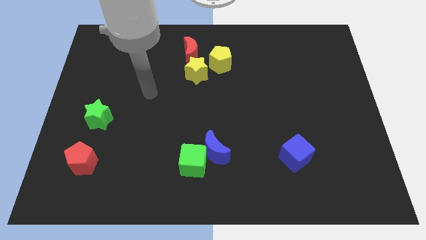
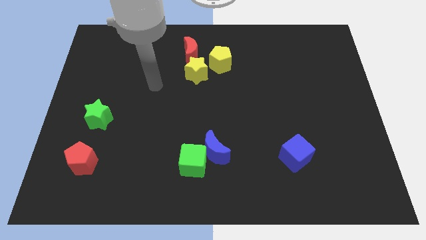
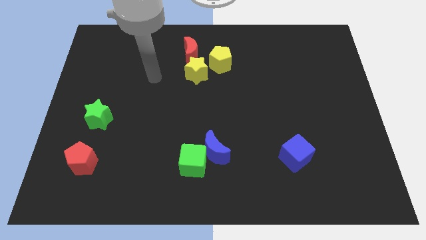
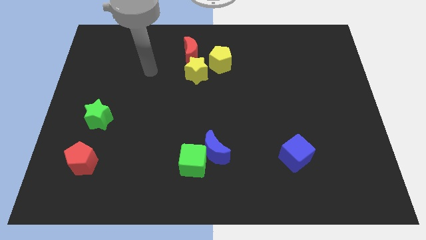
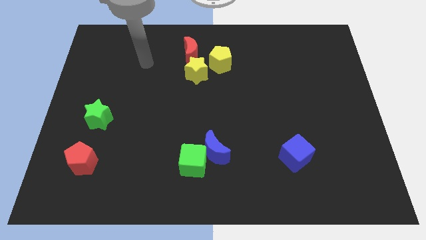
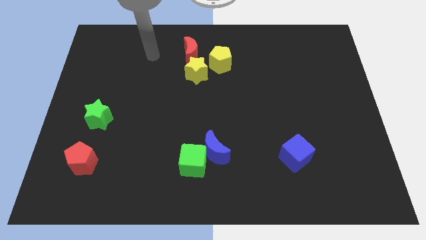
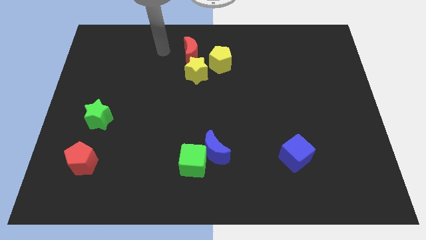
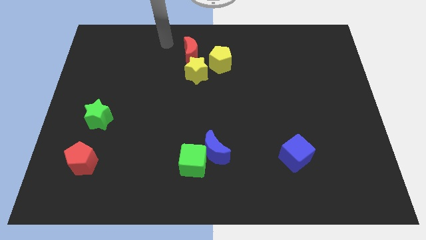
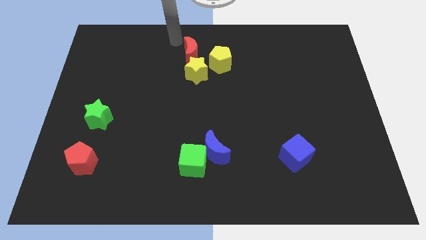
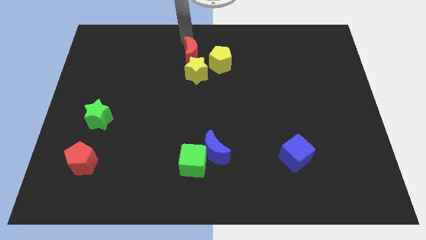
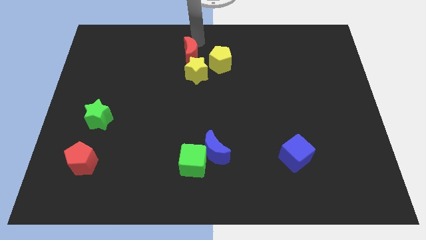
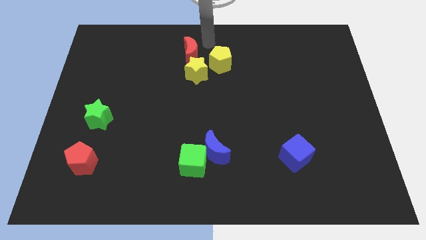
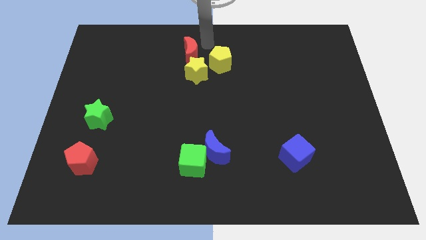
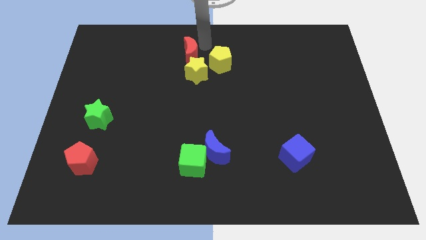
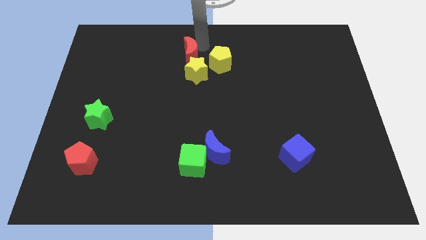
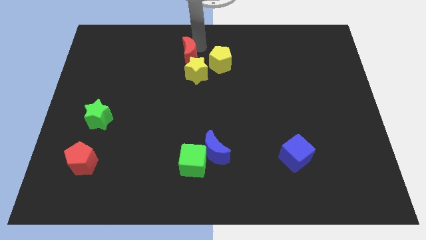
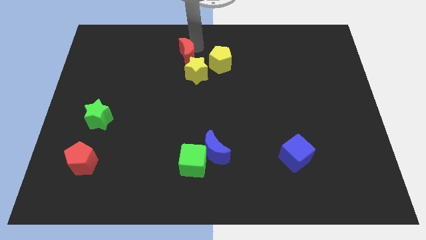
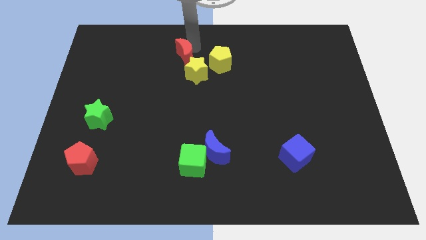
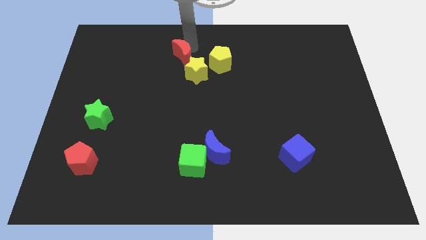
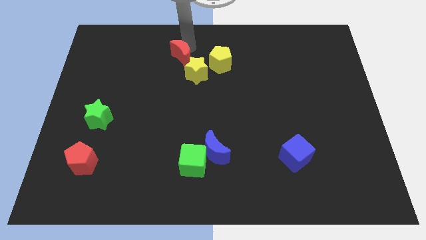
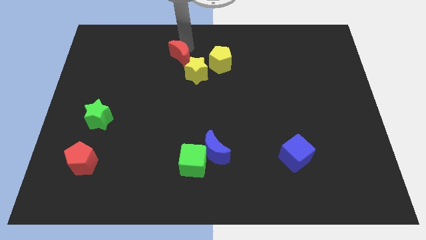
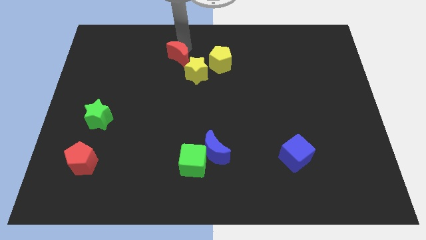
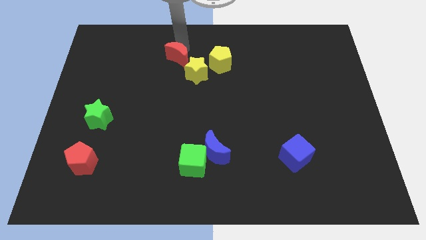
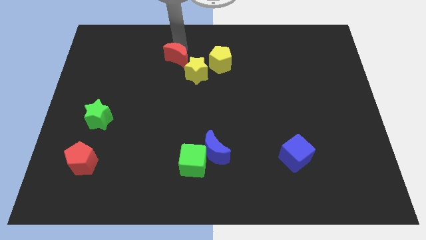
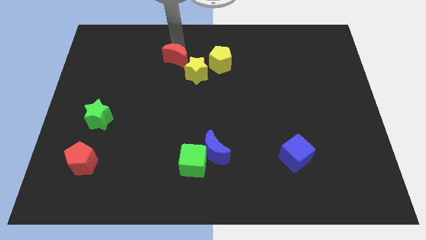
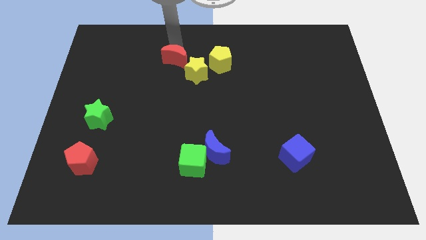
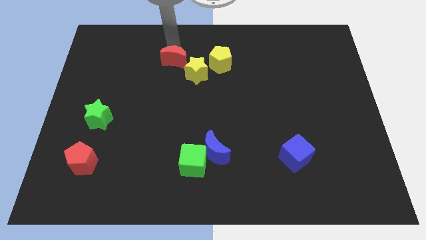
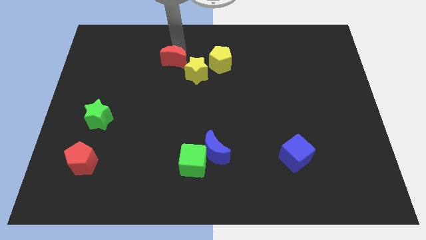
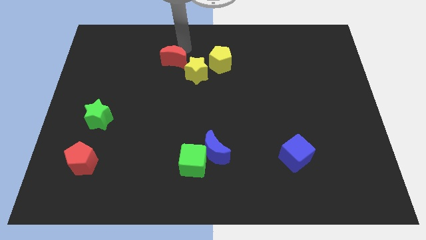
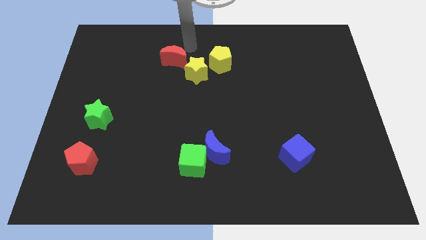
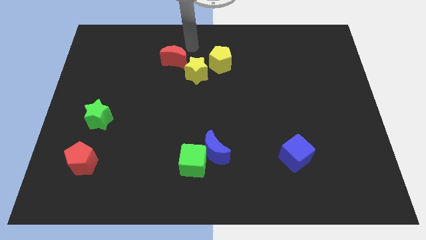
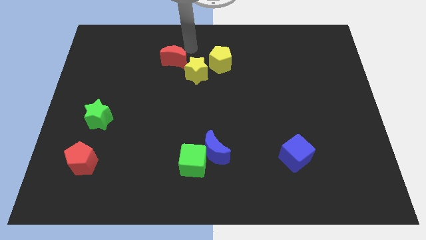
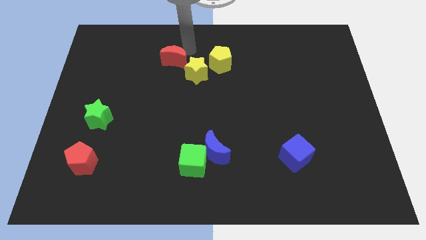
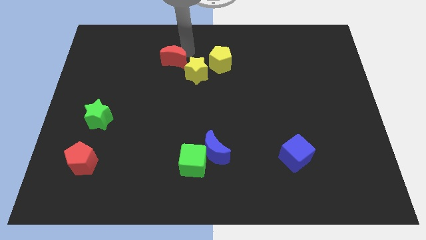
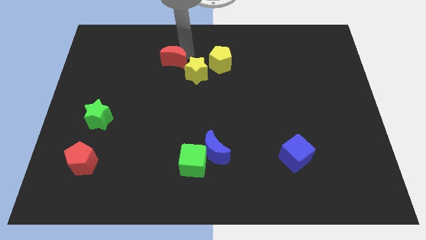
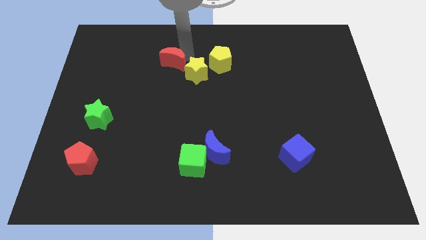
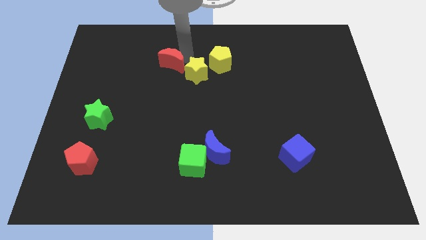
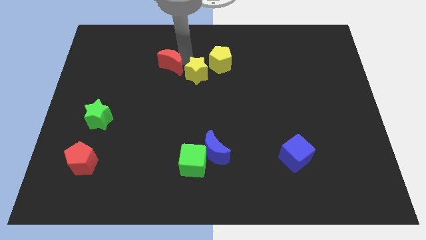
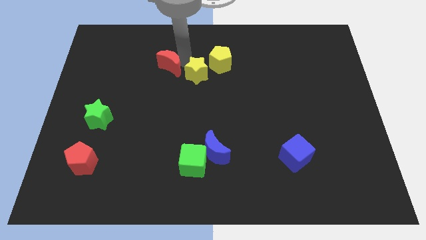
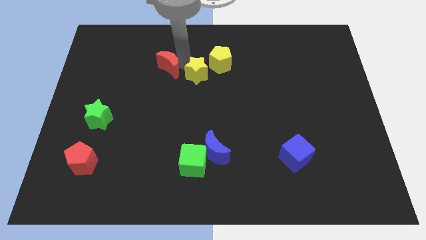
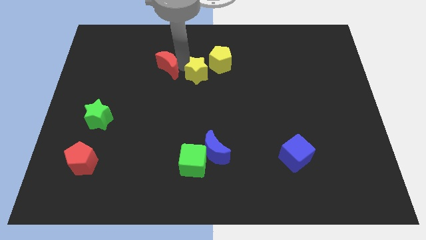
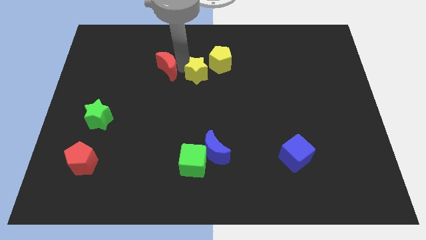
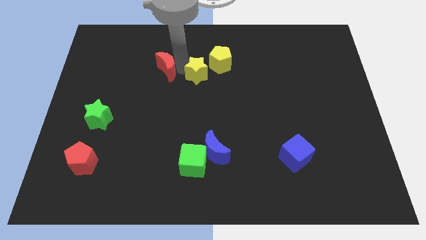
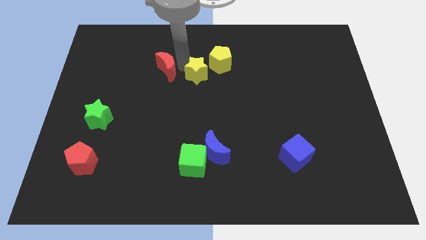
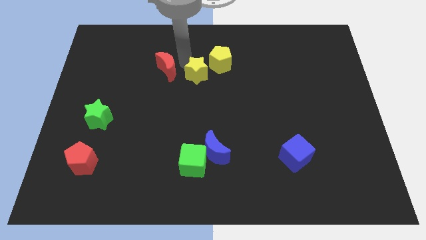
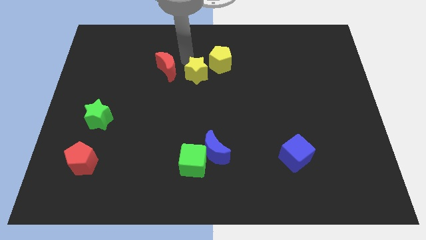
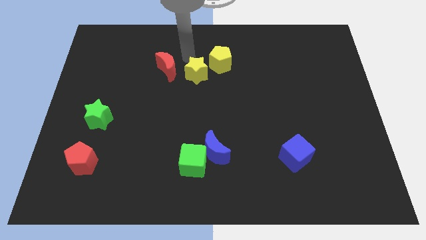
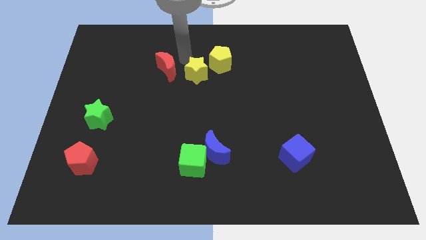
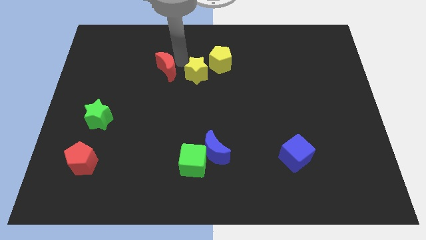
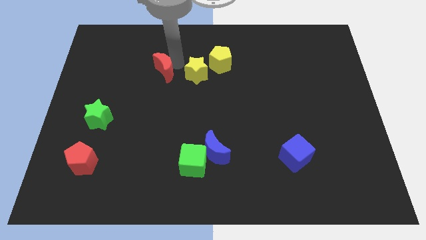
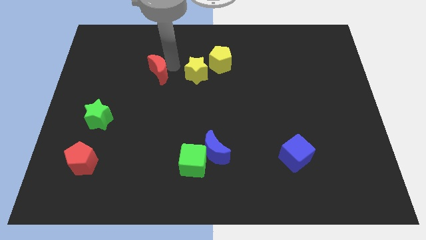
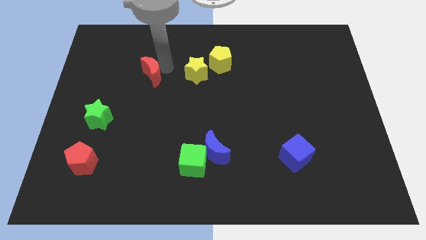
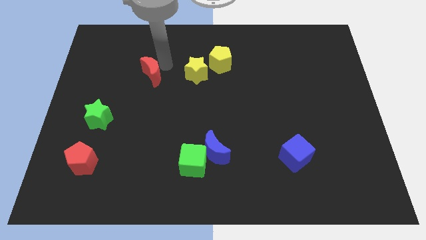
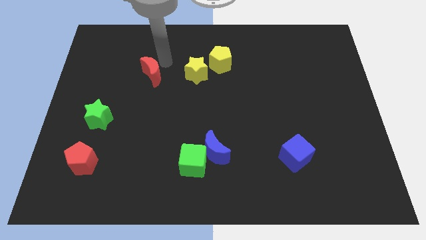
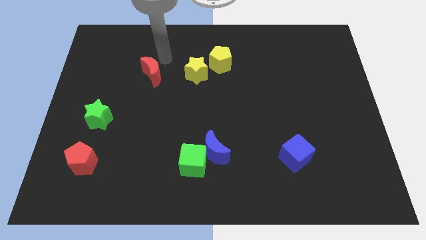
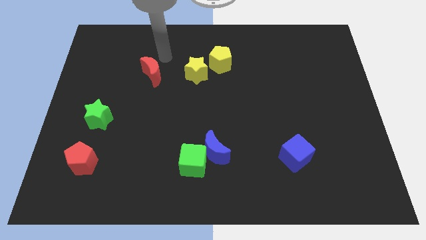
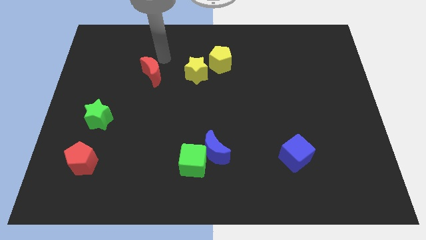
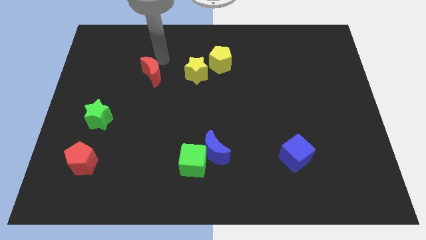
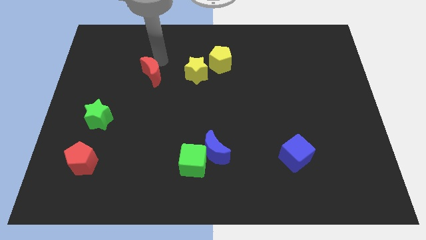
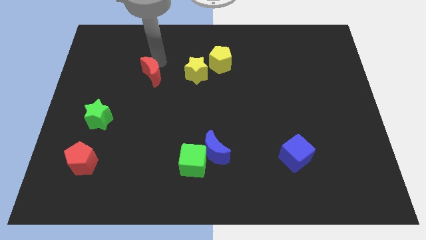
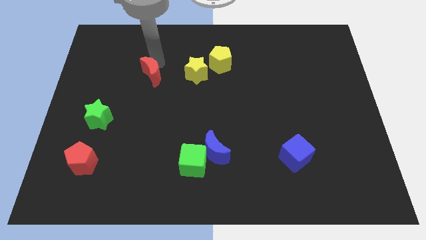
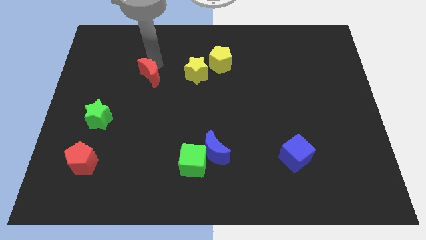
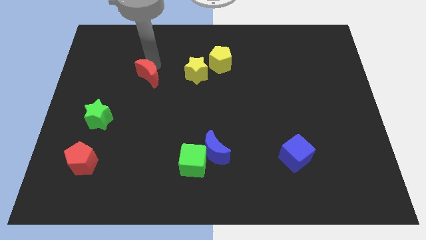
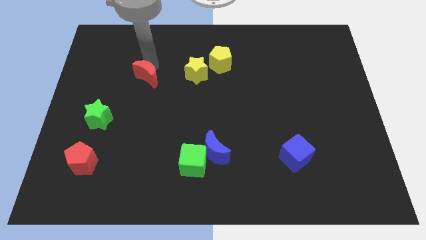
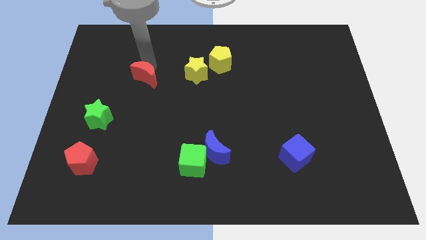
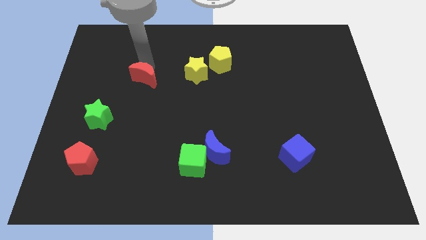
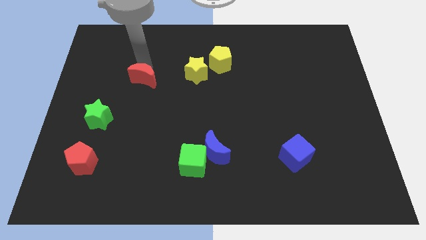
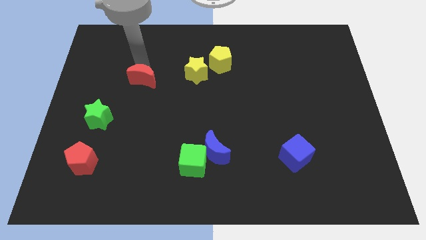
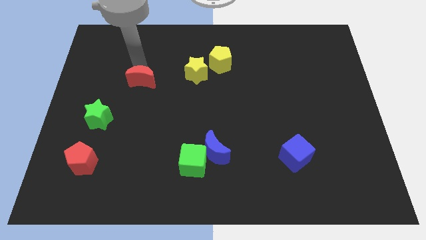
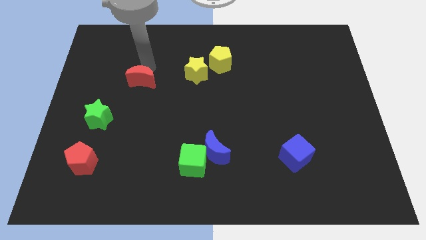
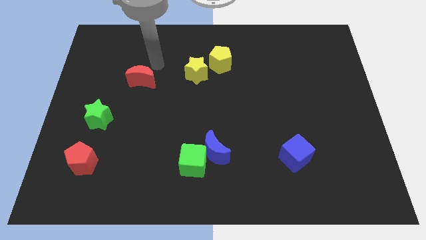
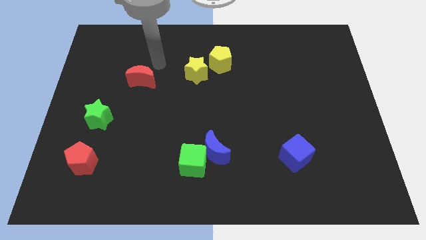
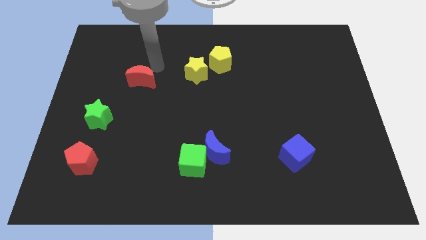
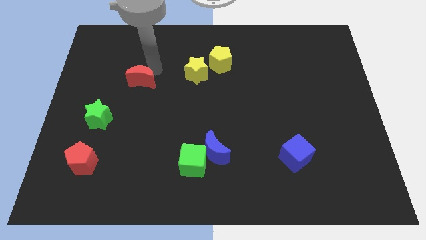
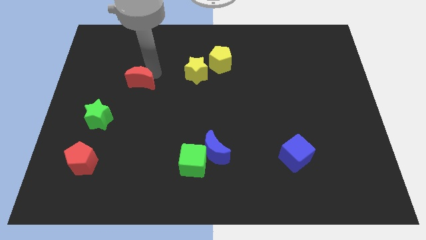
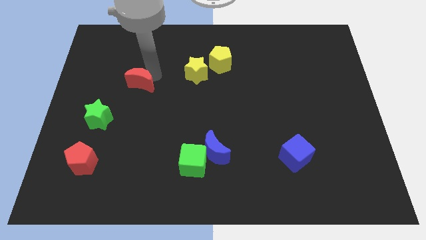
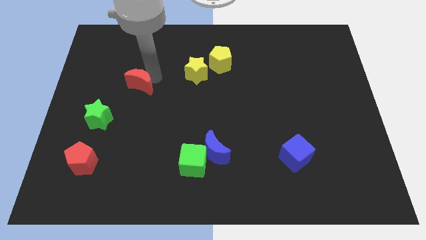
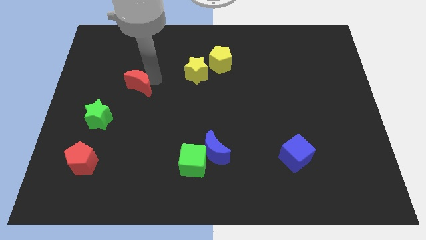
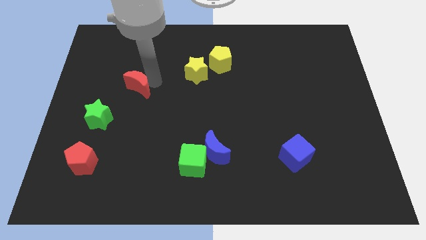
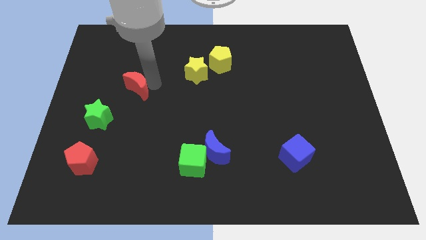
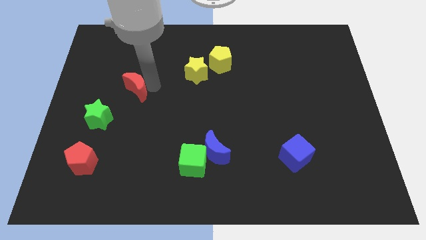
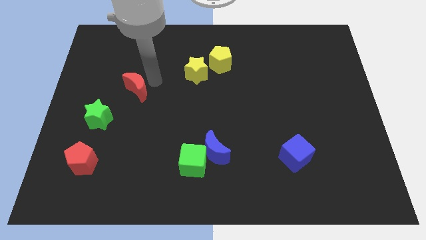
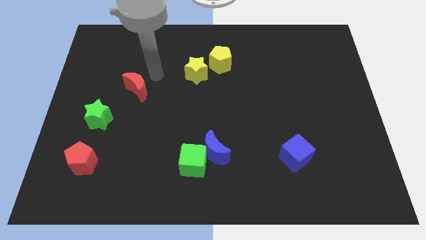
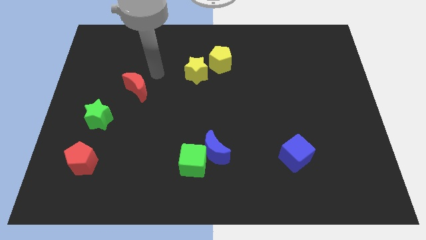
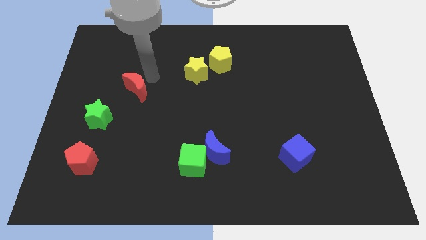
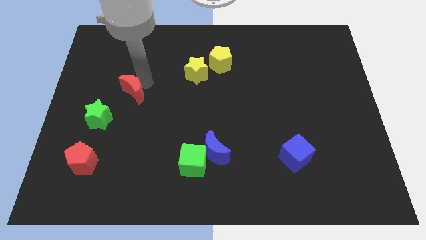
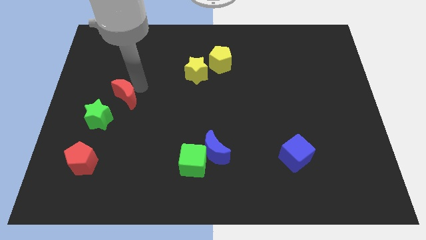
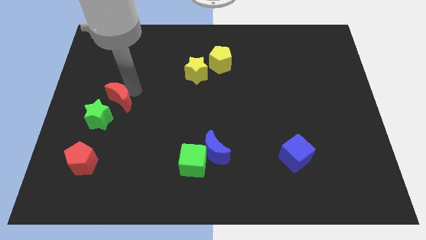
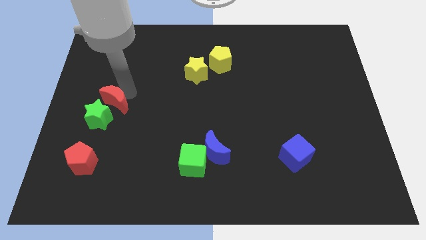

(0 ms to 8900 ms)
push the red moon to the green star
